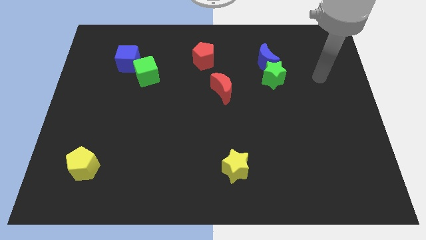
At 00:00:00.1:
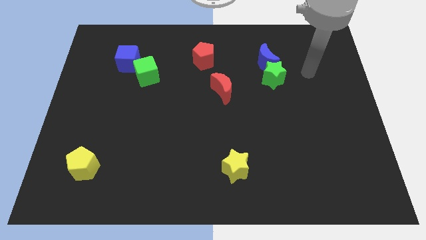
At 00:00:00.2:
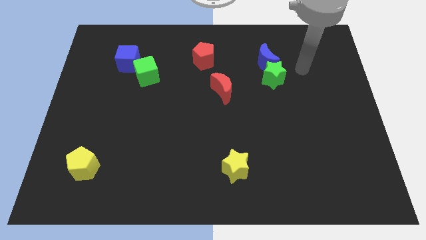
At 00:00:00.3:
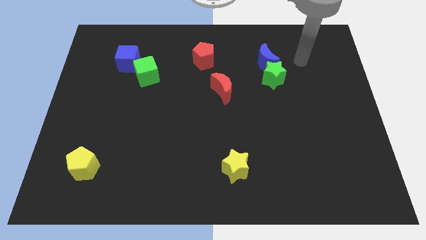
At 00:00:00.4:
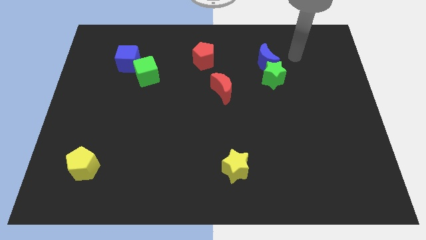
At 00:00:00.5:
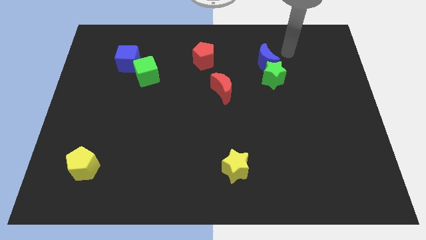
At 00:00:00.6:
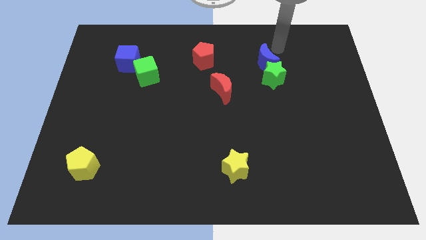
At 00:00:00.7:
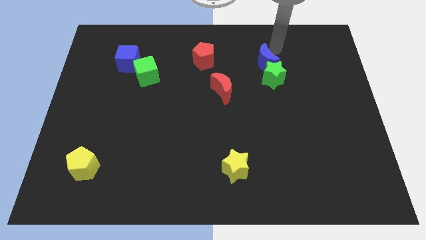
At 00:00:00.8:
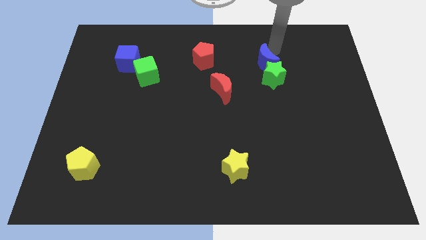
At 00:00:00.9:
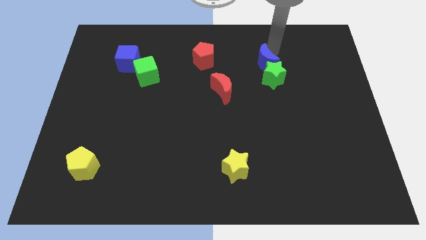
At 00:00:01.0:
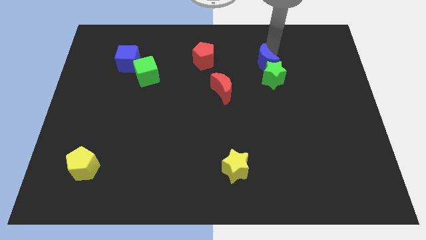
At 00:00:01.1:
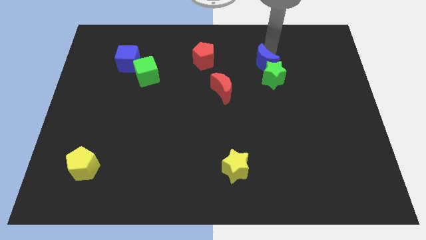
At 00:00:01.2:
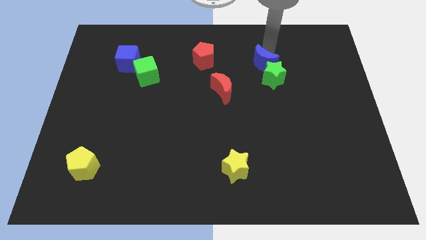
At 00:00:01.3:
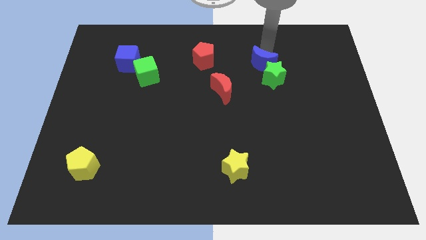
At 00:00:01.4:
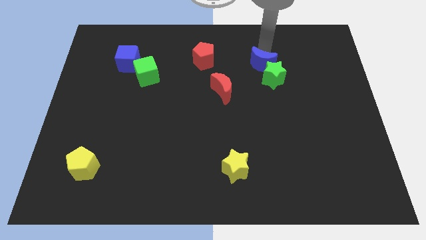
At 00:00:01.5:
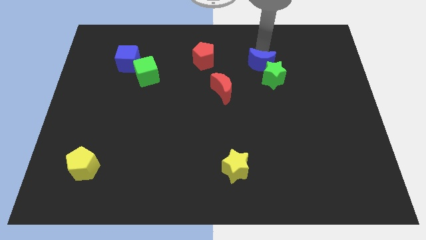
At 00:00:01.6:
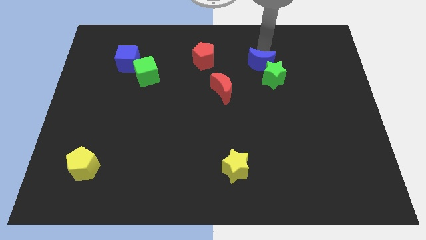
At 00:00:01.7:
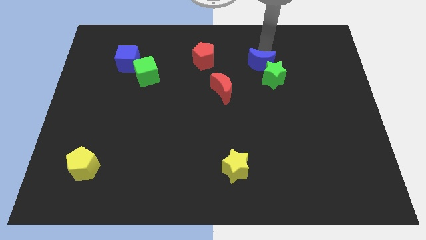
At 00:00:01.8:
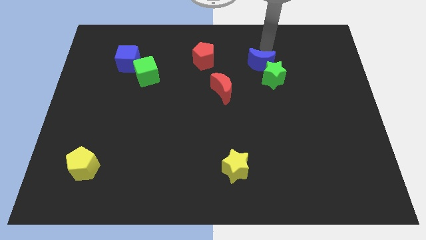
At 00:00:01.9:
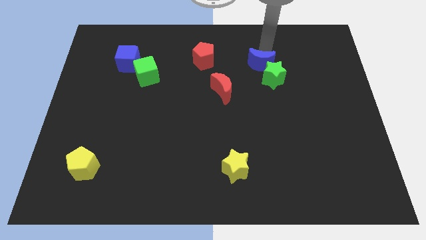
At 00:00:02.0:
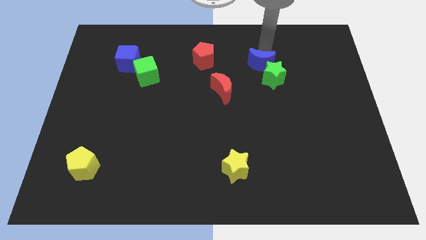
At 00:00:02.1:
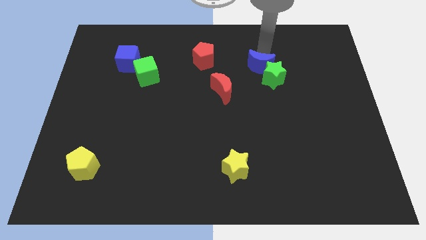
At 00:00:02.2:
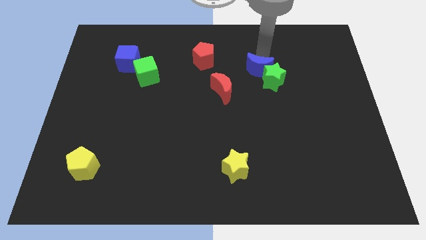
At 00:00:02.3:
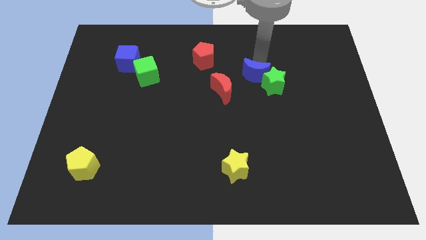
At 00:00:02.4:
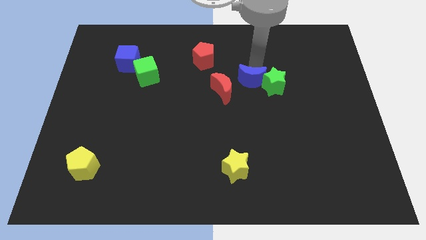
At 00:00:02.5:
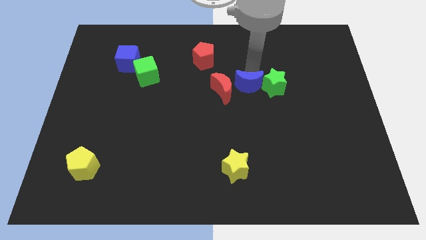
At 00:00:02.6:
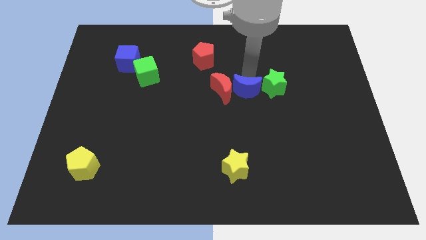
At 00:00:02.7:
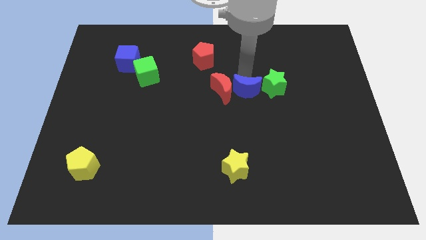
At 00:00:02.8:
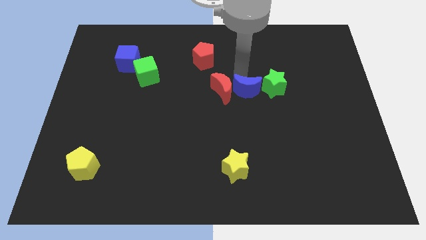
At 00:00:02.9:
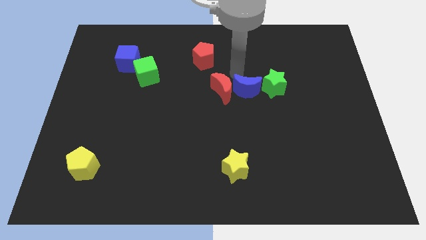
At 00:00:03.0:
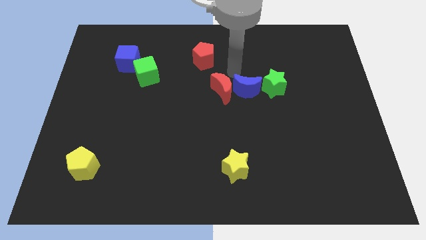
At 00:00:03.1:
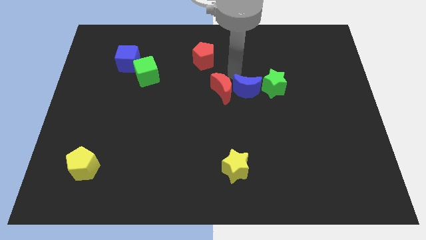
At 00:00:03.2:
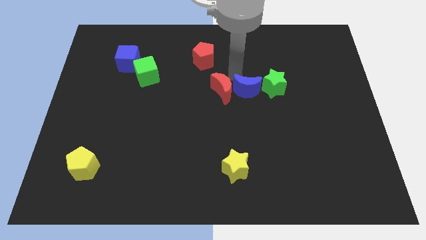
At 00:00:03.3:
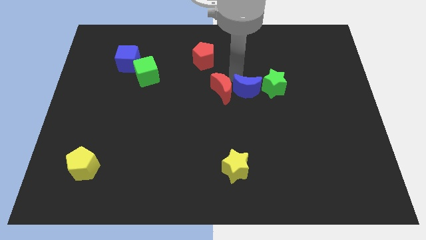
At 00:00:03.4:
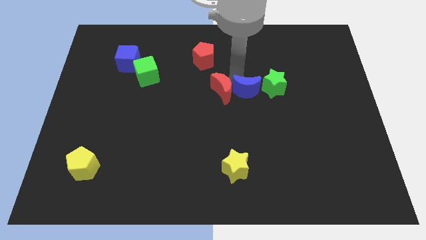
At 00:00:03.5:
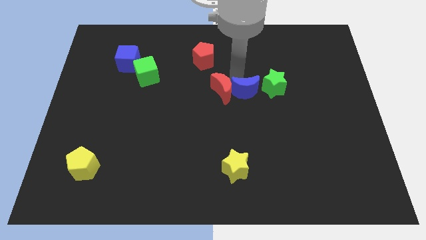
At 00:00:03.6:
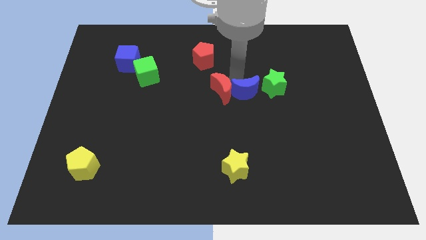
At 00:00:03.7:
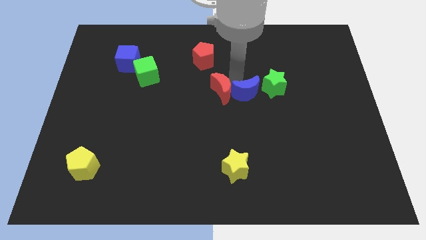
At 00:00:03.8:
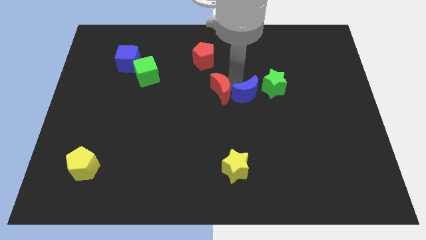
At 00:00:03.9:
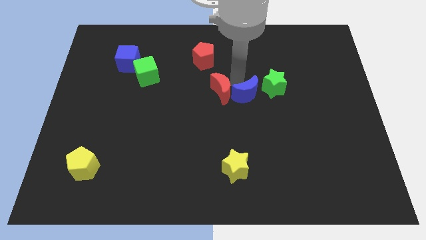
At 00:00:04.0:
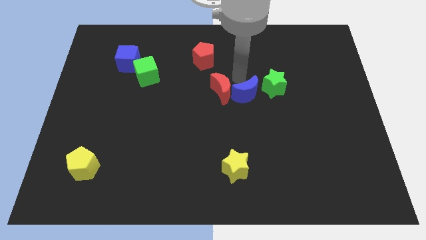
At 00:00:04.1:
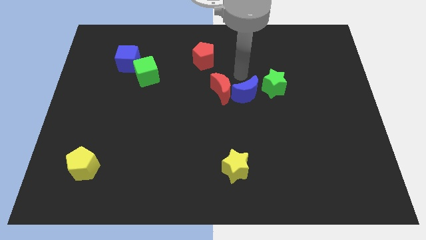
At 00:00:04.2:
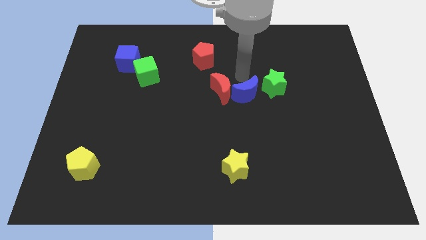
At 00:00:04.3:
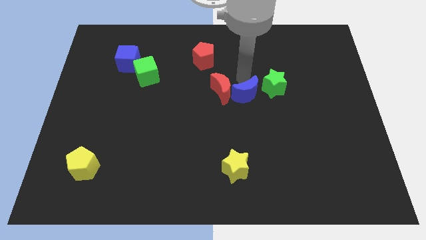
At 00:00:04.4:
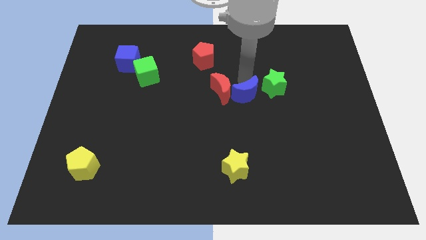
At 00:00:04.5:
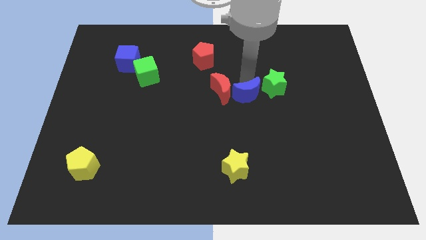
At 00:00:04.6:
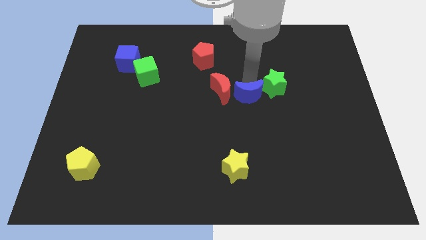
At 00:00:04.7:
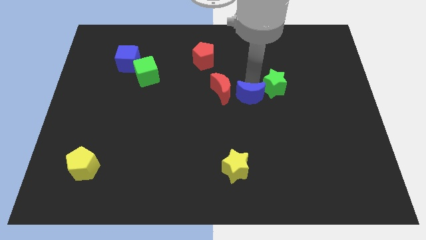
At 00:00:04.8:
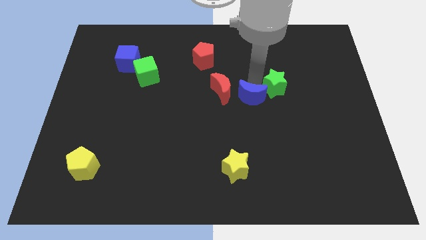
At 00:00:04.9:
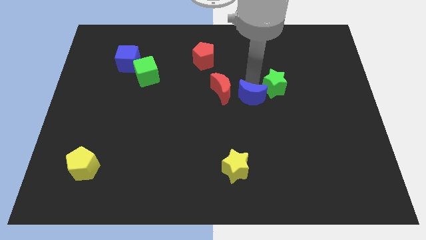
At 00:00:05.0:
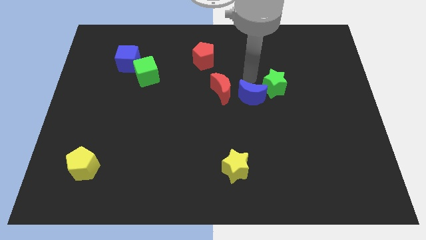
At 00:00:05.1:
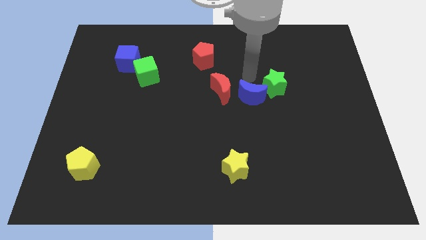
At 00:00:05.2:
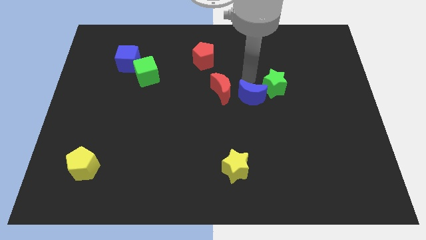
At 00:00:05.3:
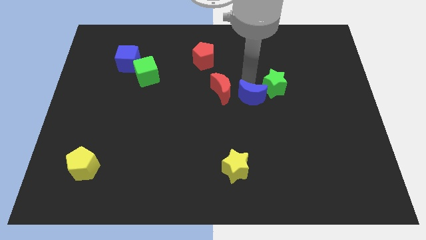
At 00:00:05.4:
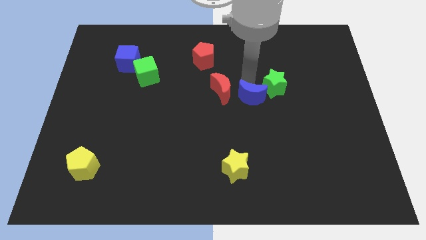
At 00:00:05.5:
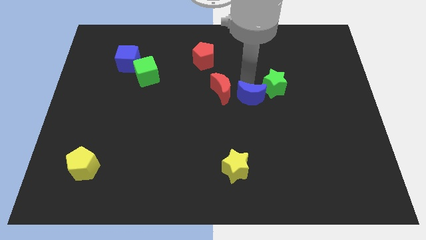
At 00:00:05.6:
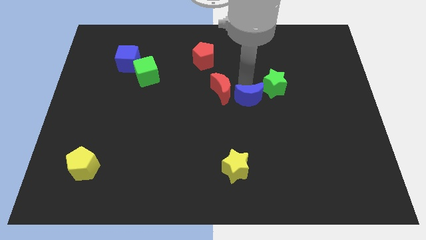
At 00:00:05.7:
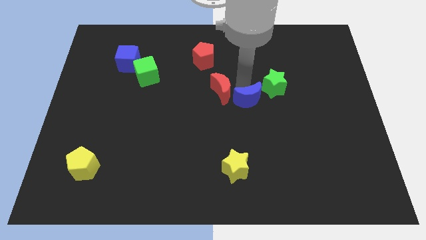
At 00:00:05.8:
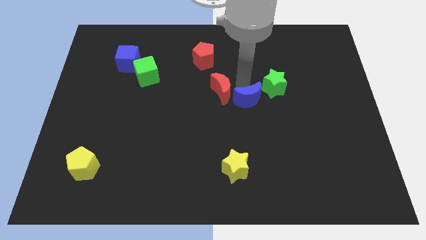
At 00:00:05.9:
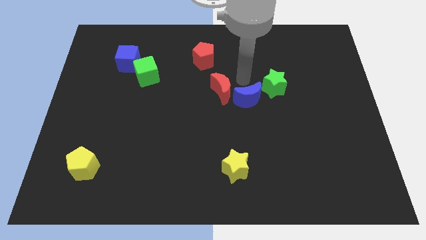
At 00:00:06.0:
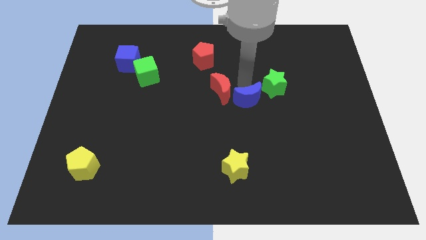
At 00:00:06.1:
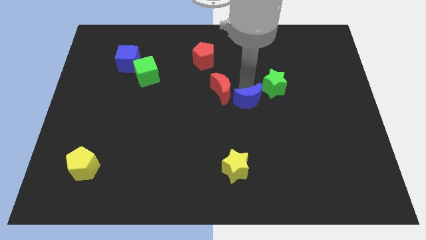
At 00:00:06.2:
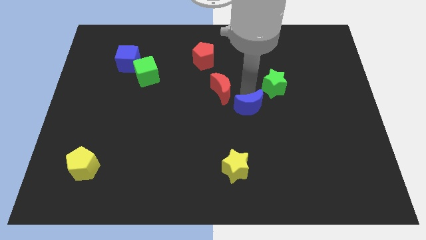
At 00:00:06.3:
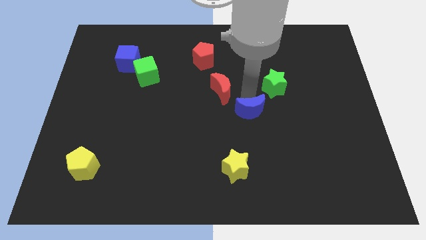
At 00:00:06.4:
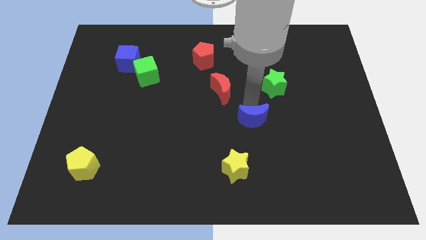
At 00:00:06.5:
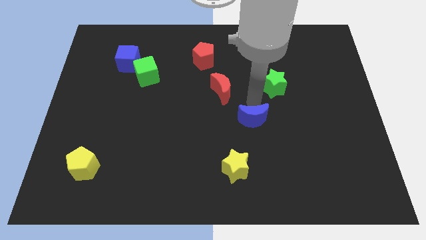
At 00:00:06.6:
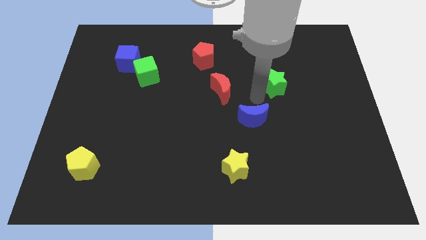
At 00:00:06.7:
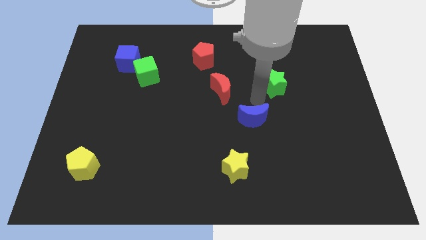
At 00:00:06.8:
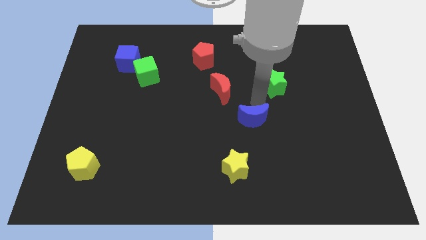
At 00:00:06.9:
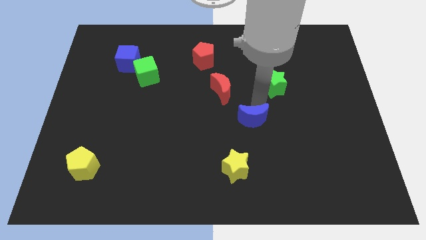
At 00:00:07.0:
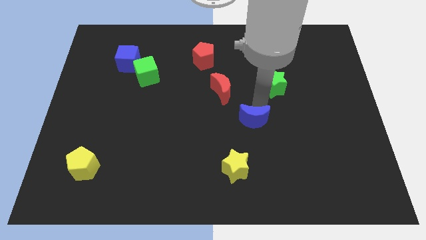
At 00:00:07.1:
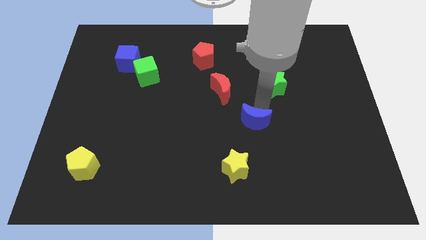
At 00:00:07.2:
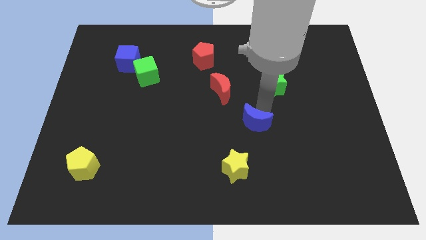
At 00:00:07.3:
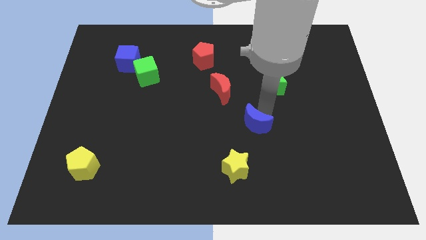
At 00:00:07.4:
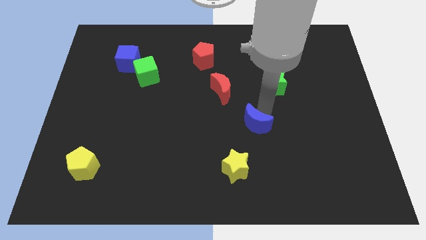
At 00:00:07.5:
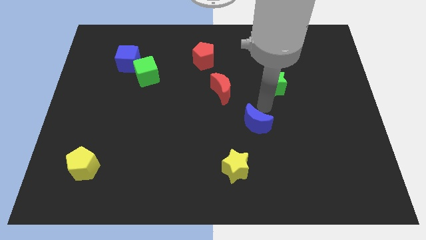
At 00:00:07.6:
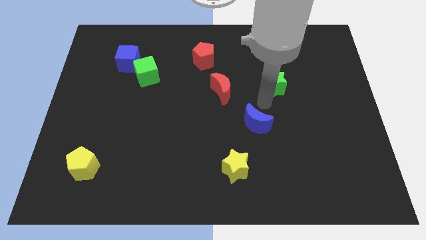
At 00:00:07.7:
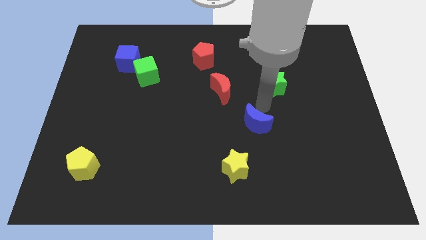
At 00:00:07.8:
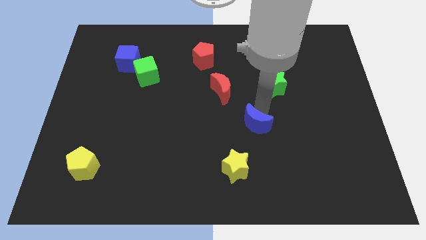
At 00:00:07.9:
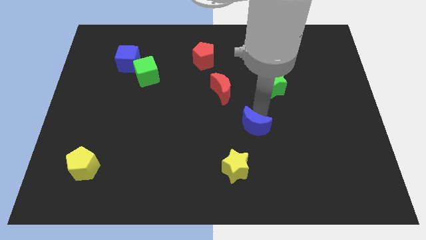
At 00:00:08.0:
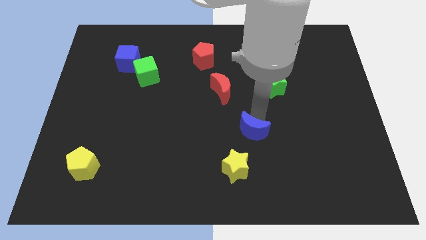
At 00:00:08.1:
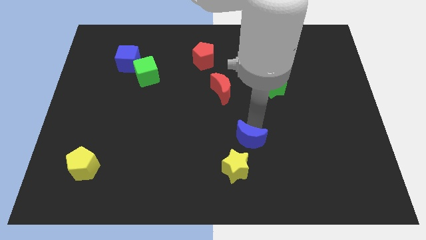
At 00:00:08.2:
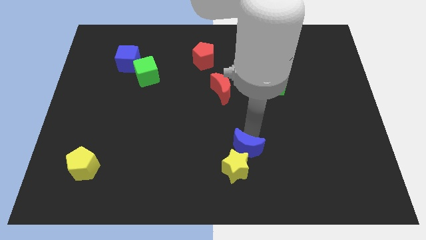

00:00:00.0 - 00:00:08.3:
put the blue moon towards the yellow star
